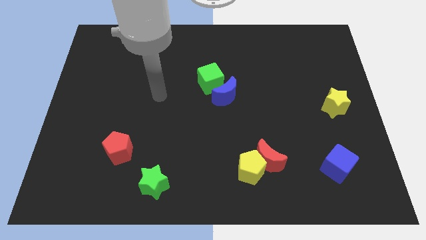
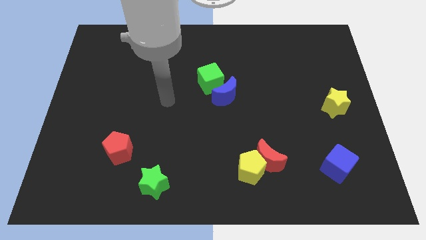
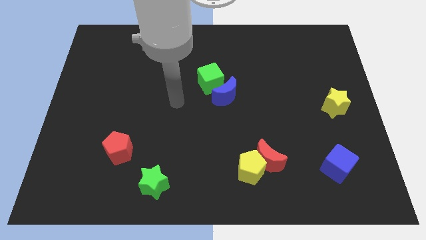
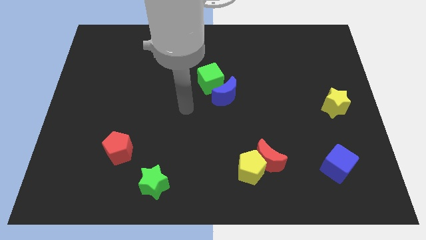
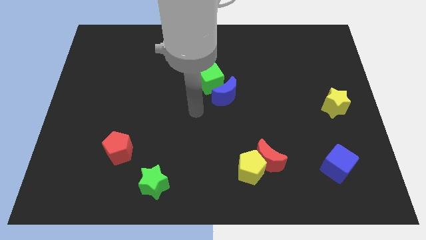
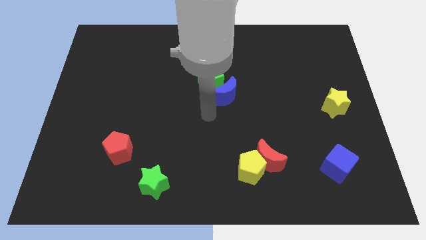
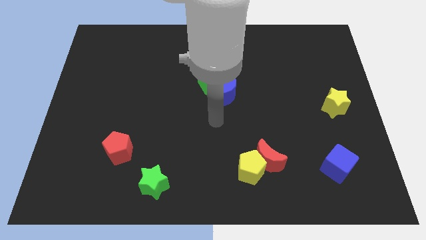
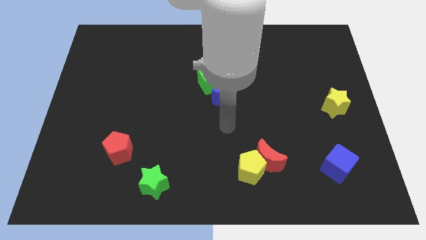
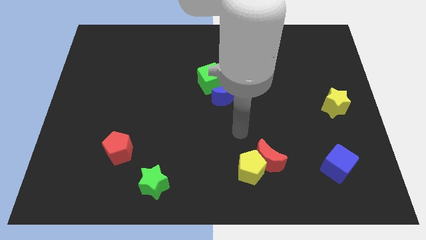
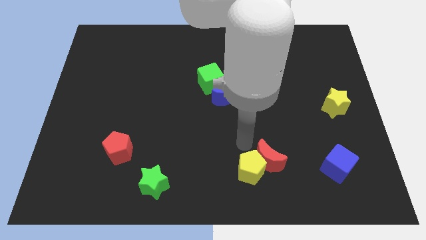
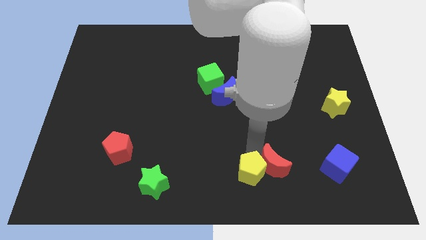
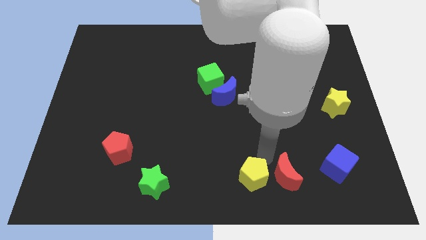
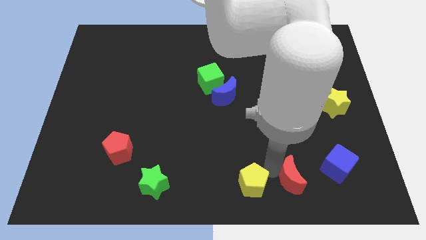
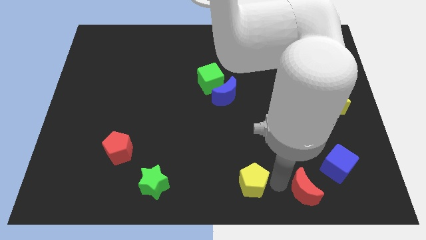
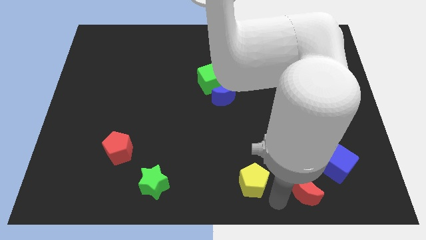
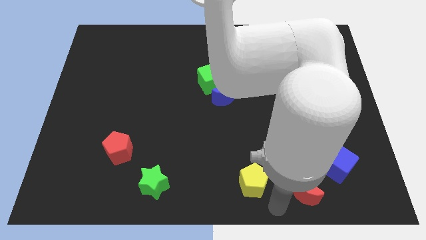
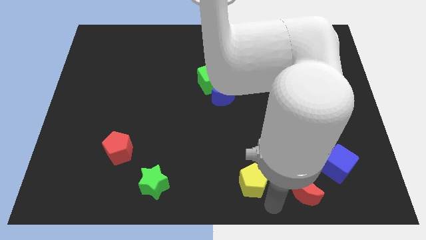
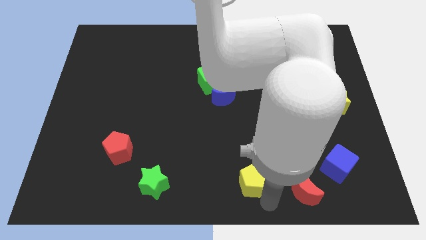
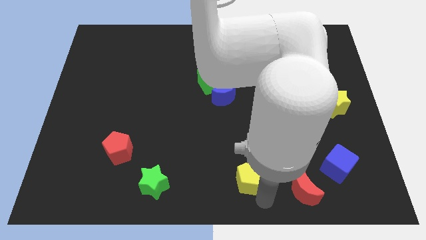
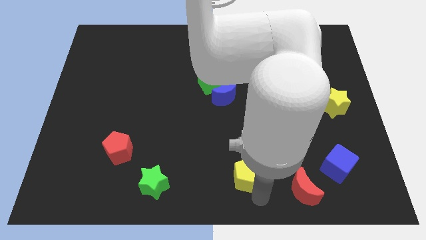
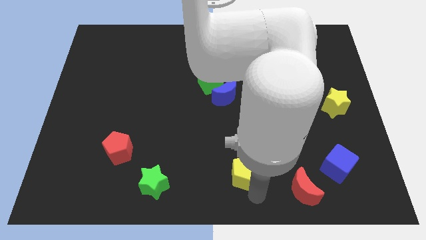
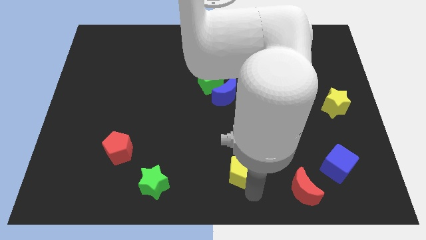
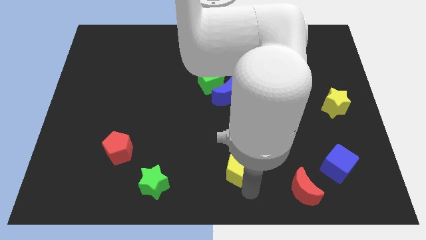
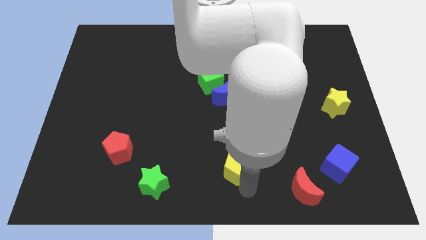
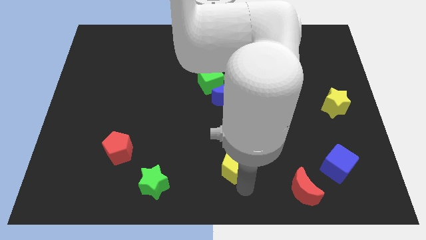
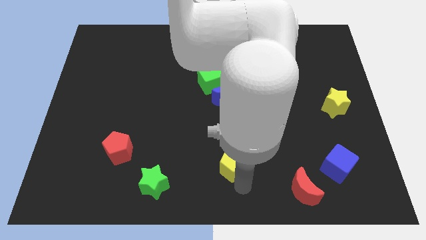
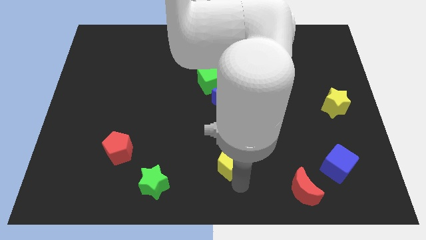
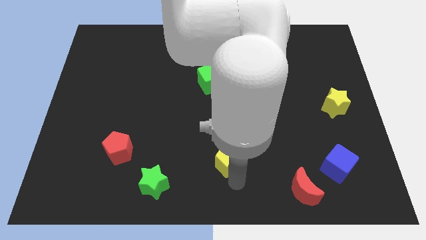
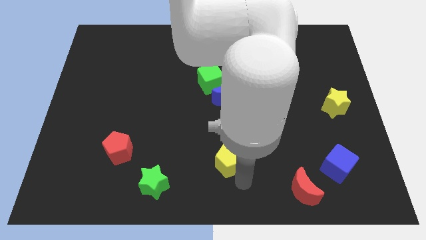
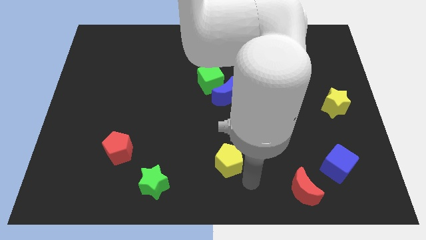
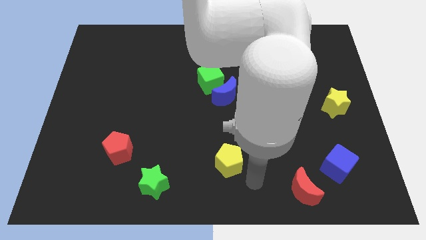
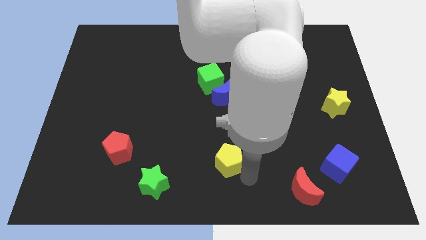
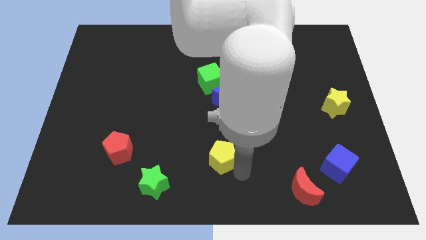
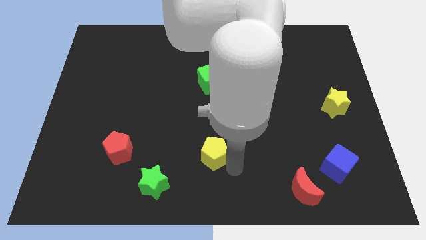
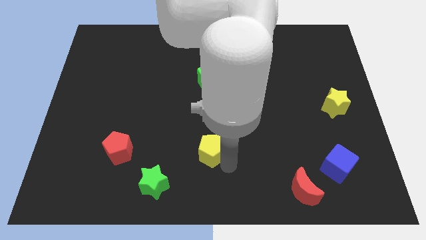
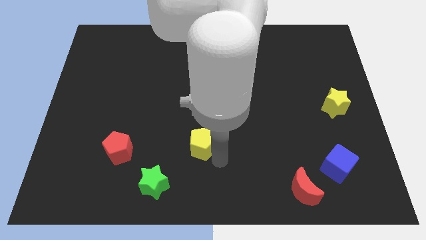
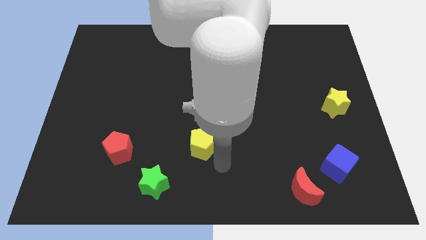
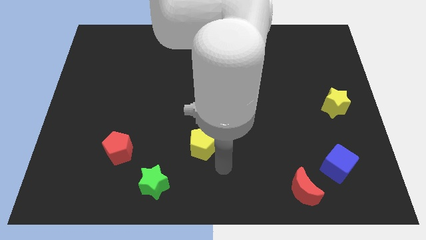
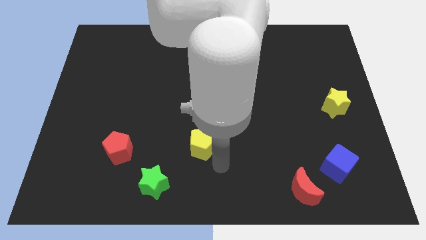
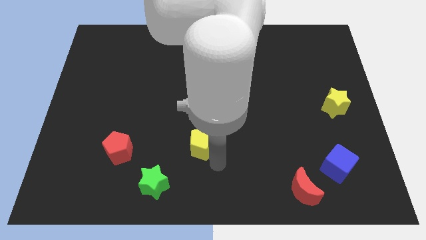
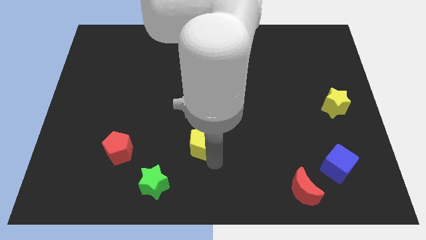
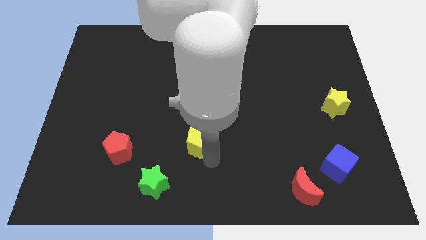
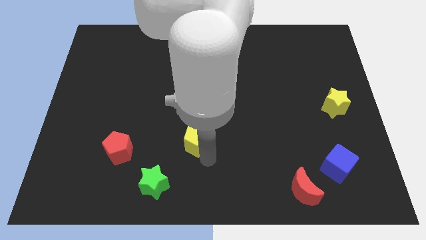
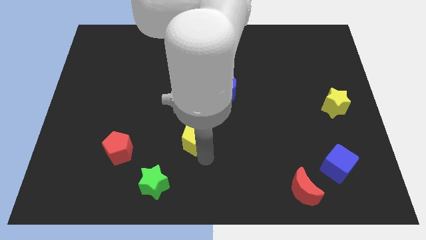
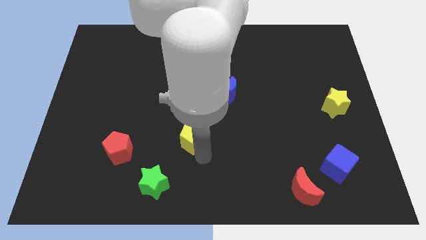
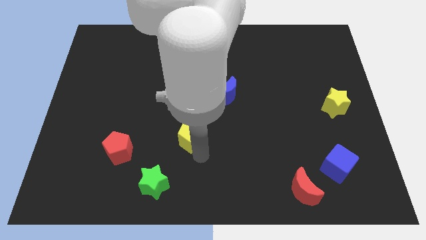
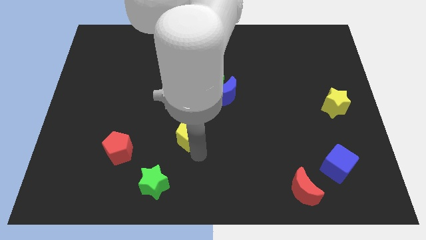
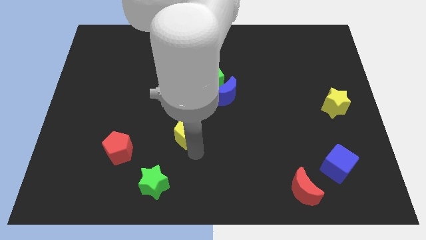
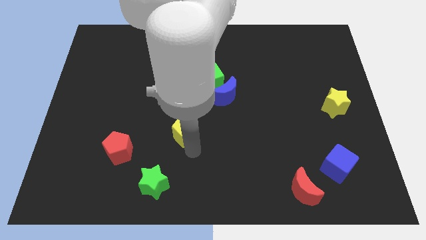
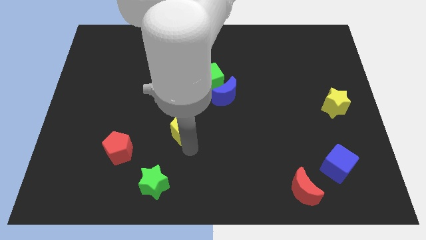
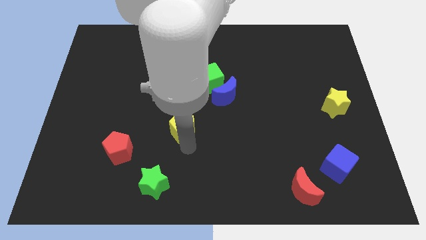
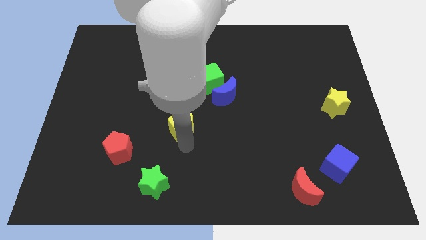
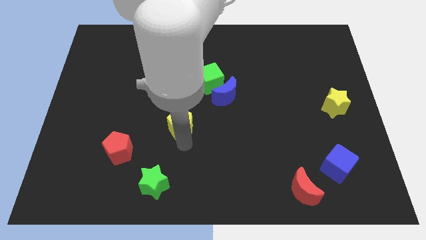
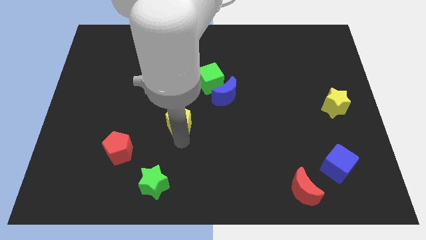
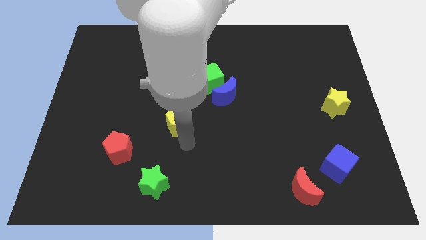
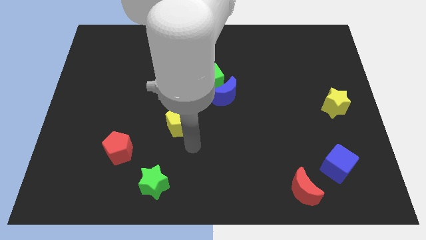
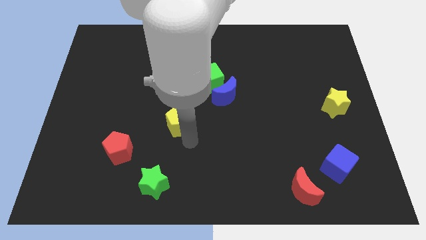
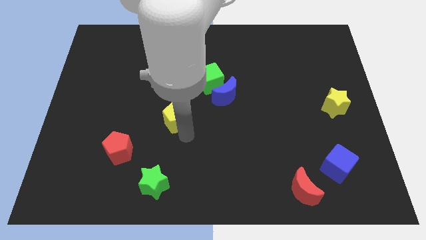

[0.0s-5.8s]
move the yellow pentagon upwards and to the left diagonally

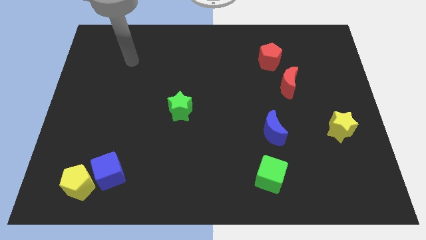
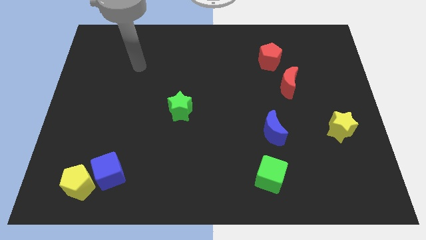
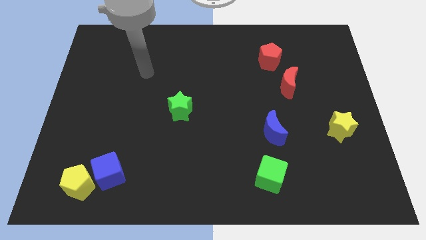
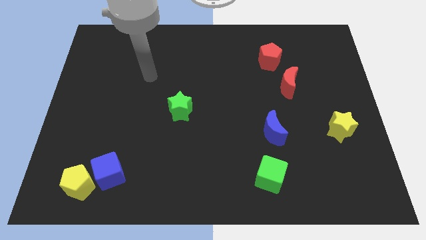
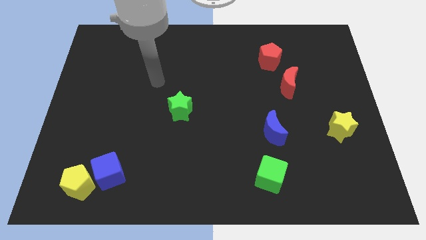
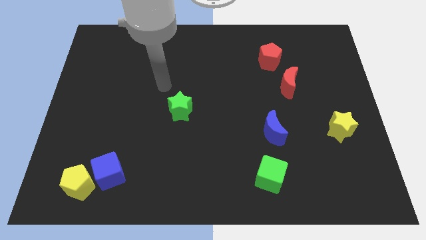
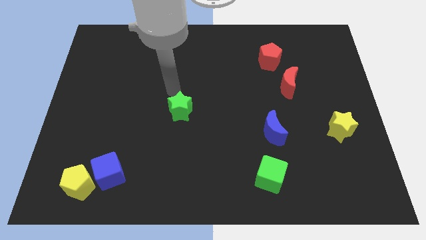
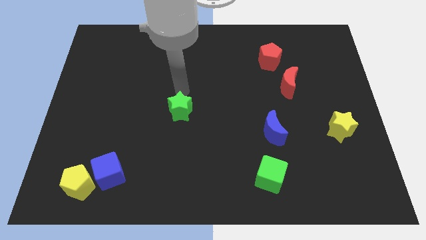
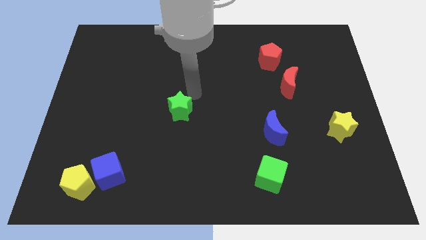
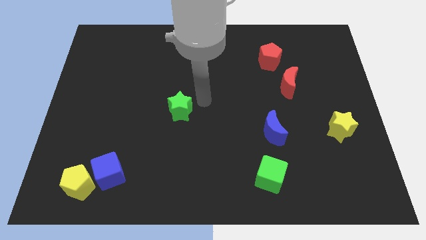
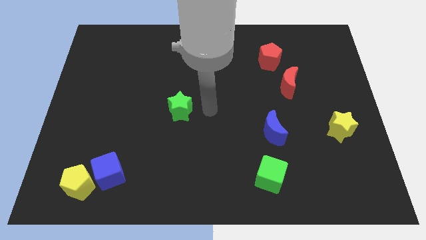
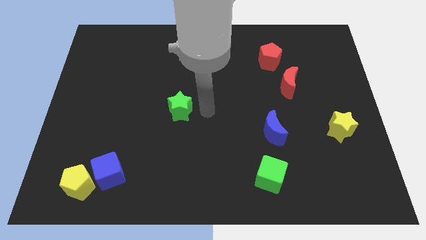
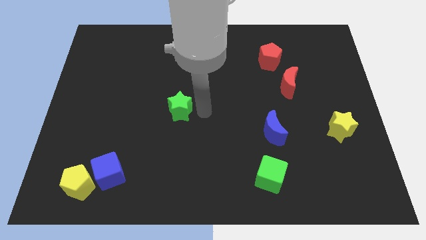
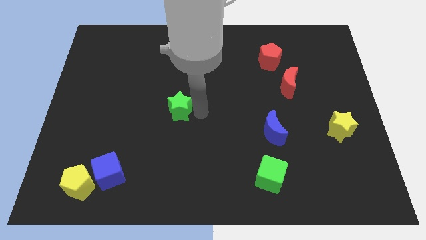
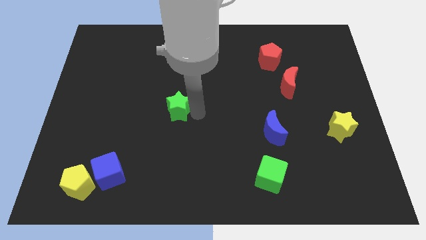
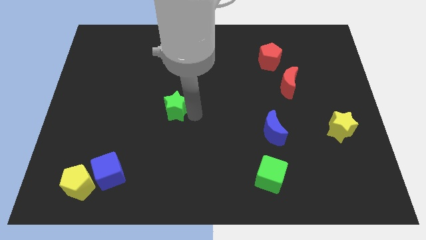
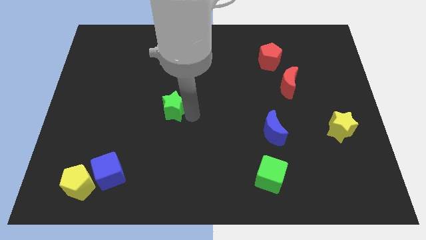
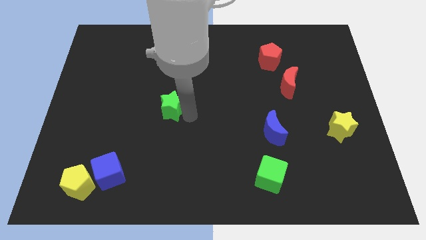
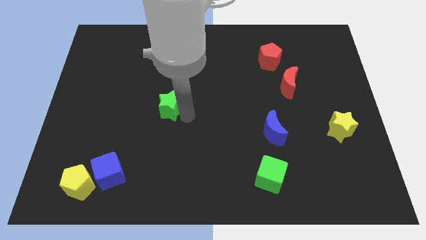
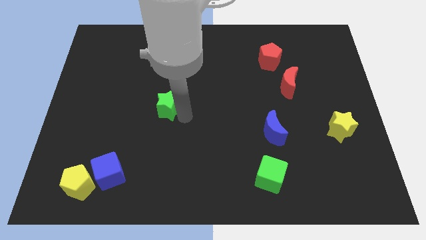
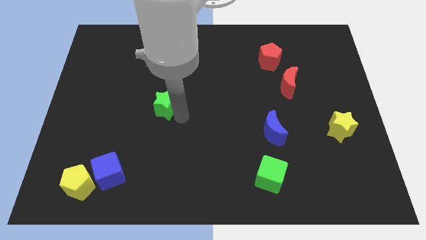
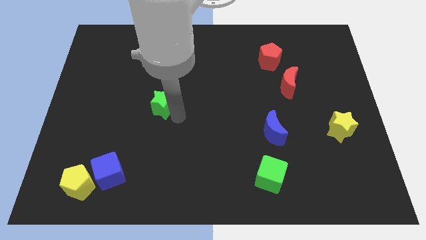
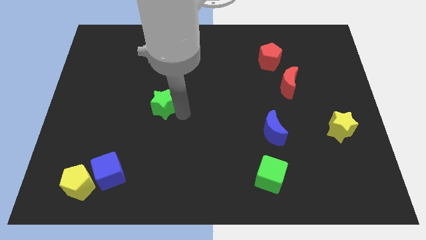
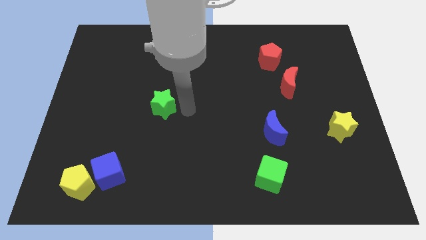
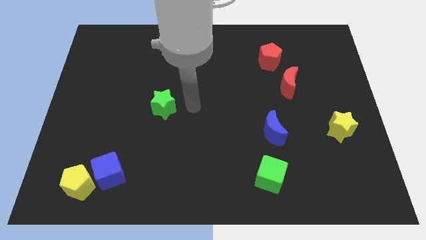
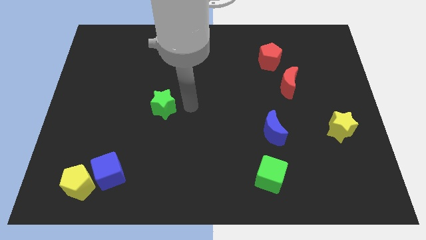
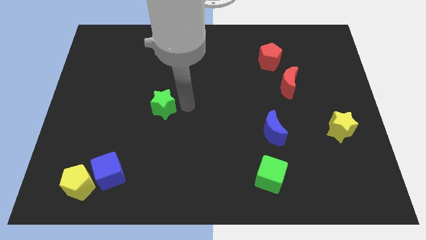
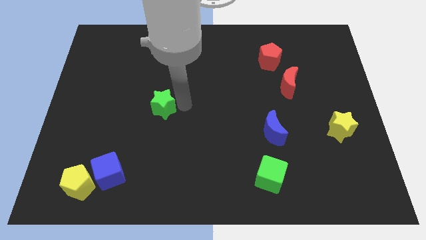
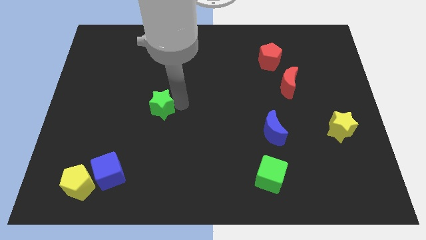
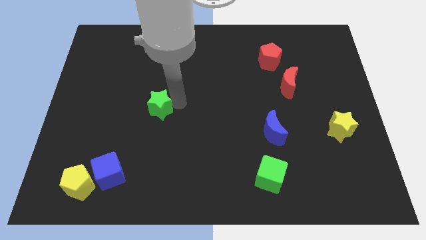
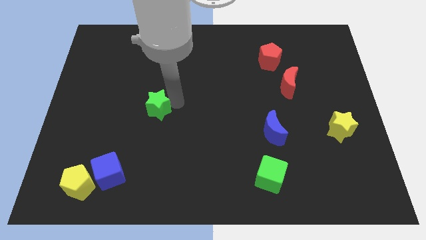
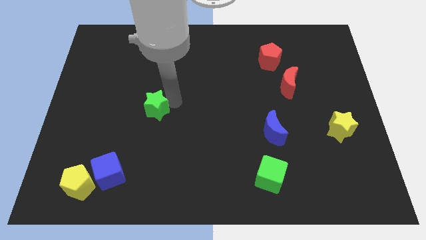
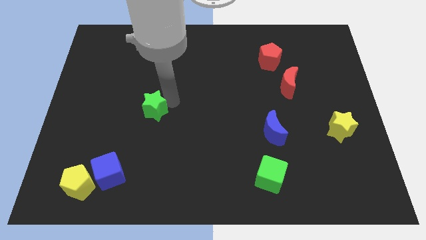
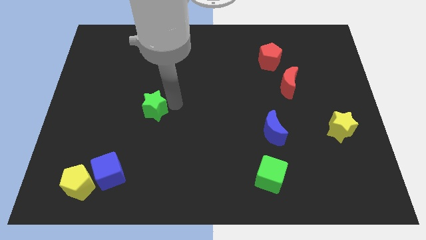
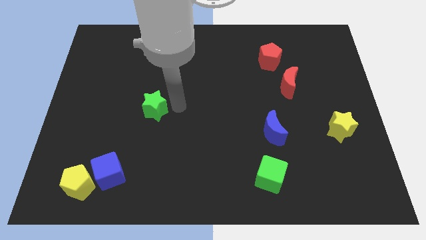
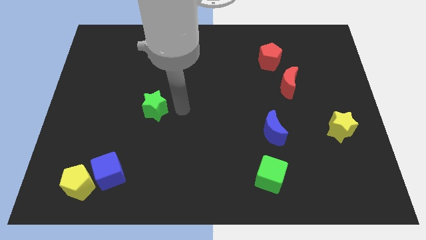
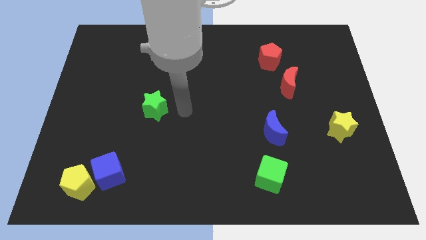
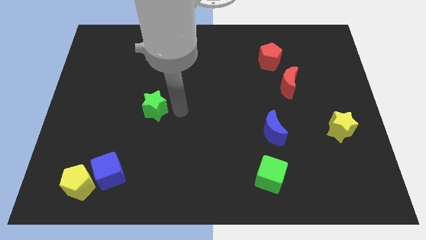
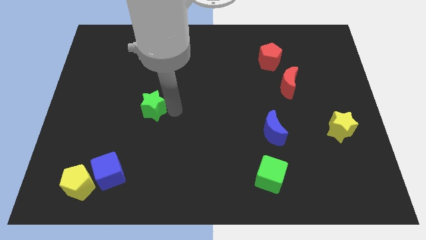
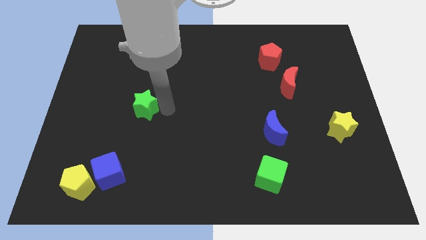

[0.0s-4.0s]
move the green star a little to the left
